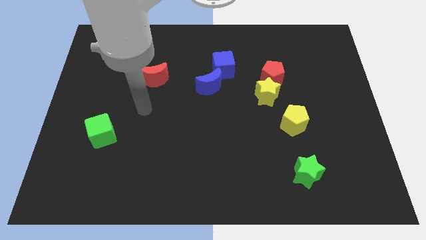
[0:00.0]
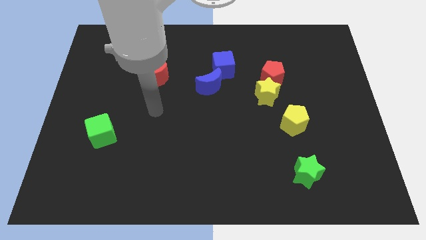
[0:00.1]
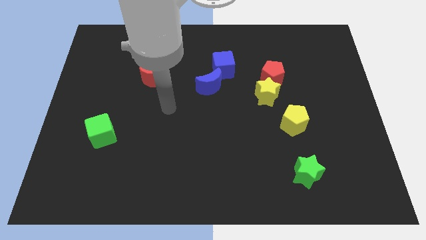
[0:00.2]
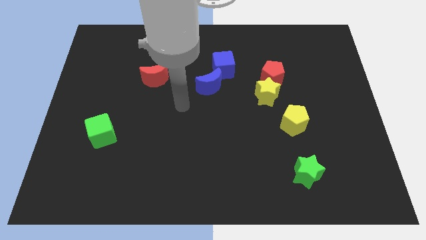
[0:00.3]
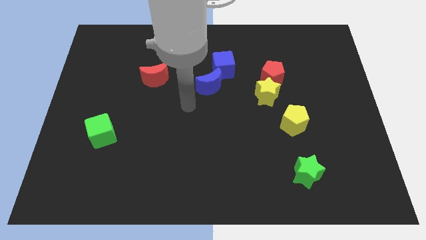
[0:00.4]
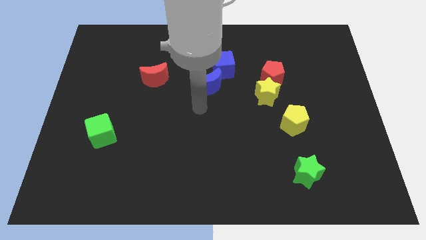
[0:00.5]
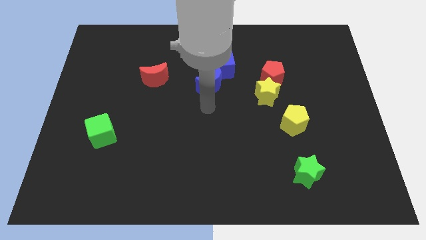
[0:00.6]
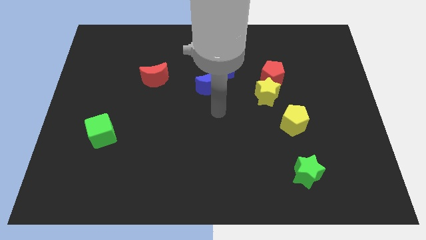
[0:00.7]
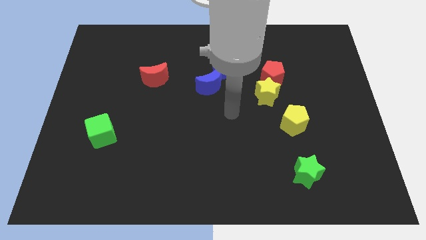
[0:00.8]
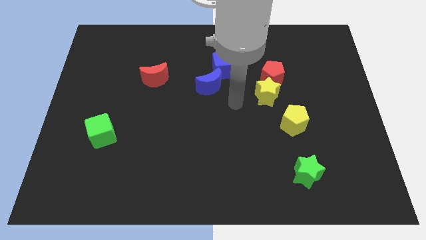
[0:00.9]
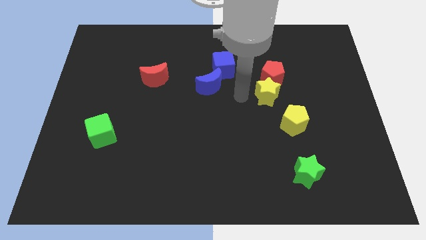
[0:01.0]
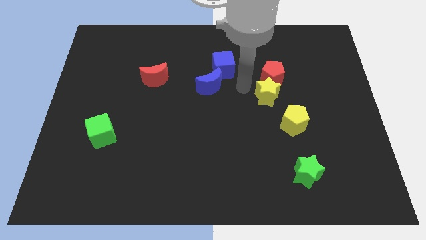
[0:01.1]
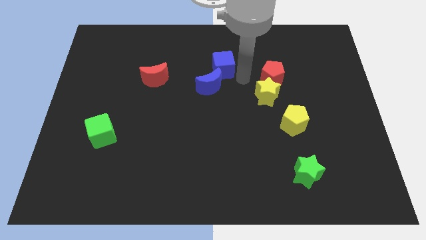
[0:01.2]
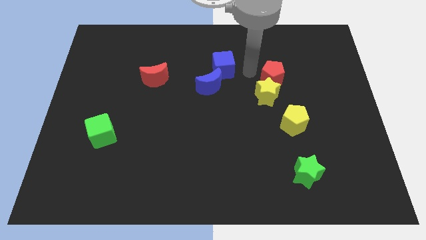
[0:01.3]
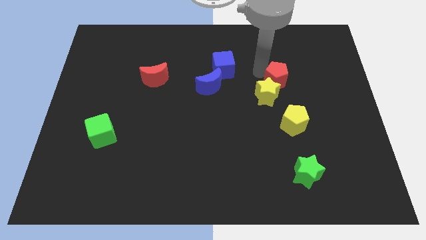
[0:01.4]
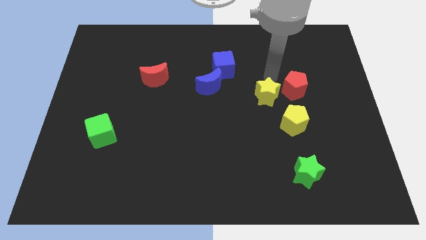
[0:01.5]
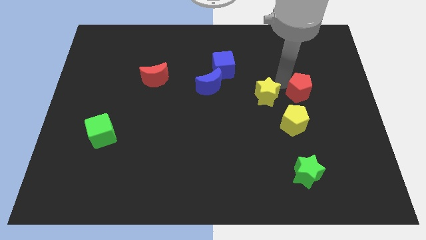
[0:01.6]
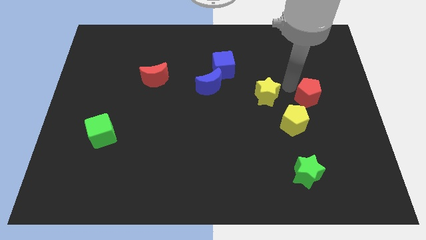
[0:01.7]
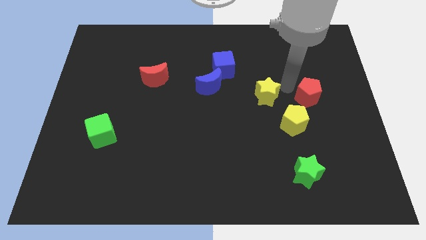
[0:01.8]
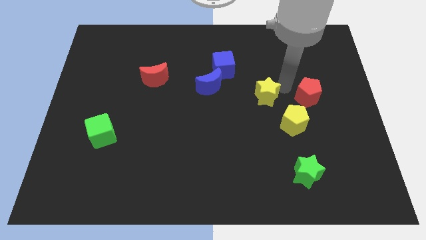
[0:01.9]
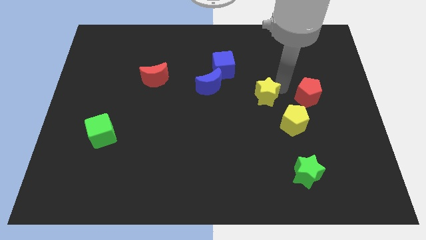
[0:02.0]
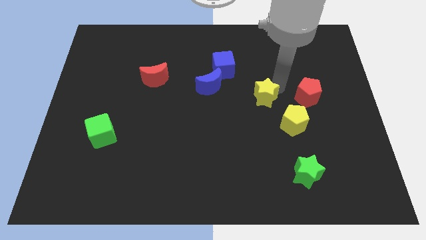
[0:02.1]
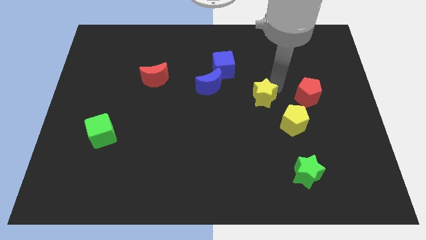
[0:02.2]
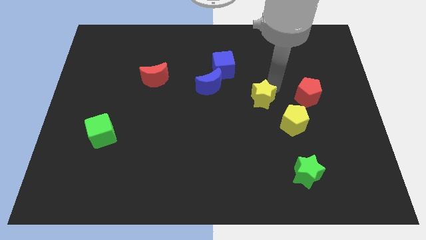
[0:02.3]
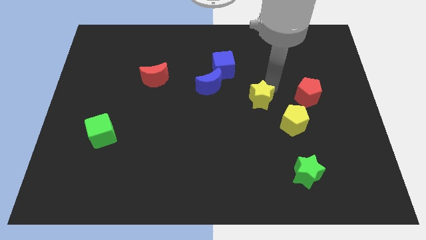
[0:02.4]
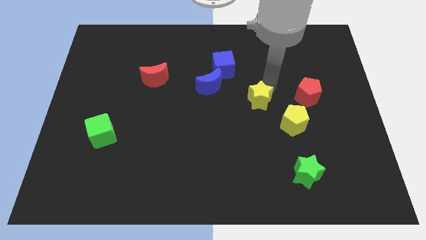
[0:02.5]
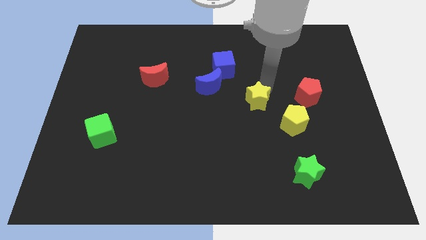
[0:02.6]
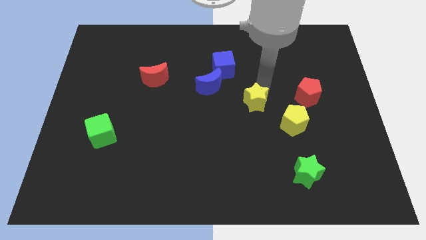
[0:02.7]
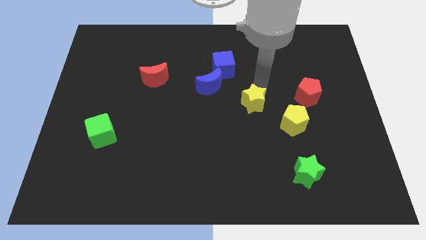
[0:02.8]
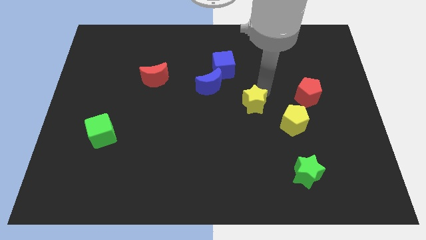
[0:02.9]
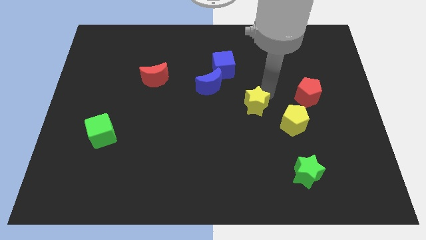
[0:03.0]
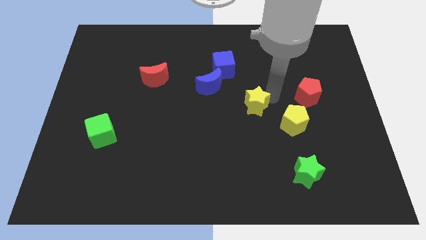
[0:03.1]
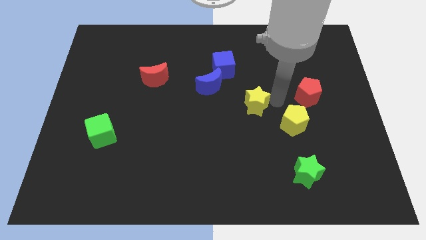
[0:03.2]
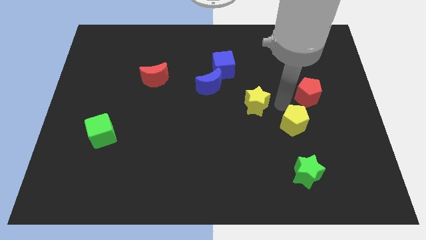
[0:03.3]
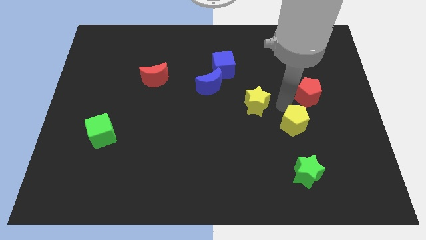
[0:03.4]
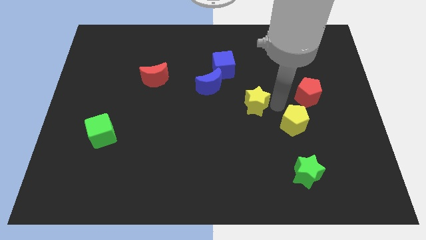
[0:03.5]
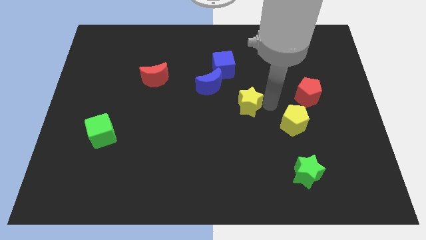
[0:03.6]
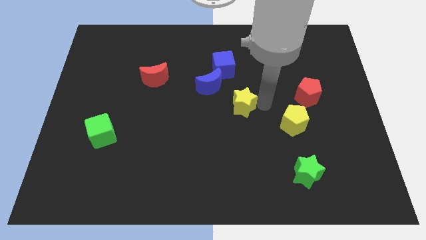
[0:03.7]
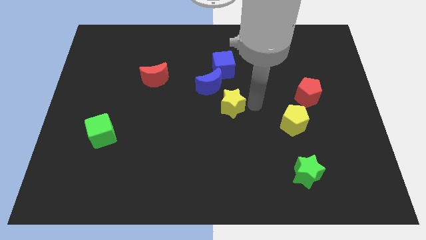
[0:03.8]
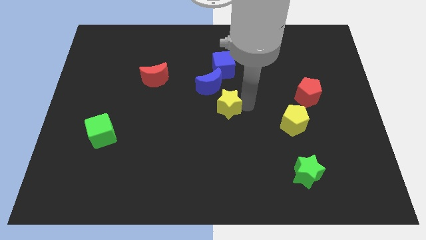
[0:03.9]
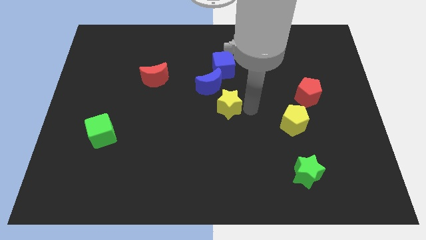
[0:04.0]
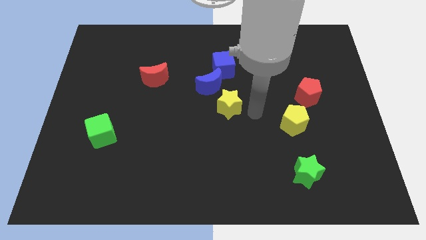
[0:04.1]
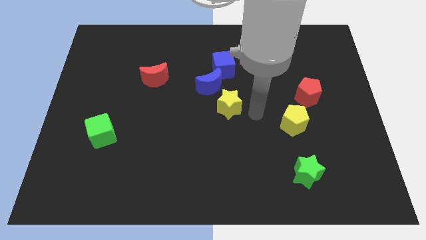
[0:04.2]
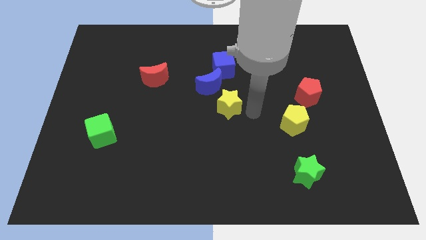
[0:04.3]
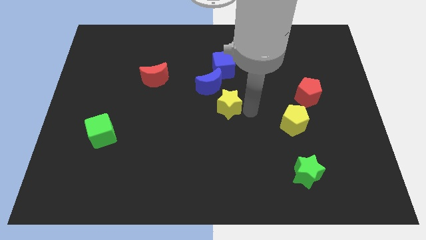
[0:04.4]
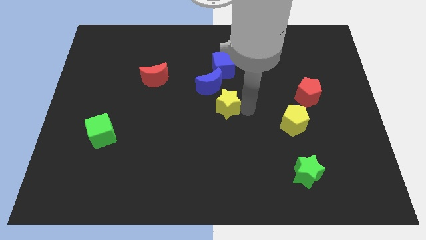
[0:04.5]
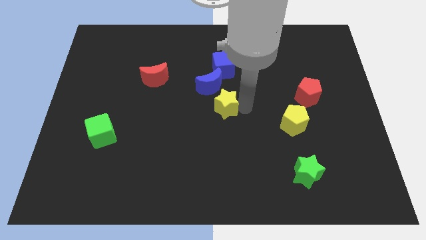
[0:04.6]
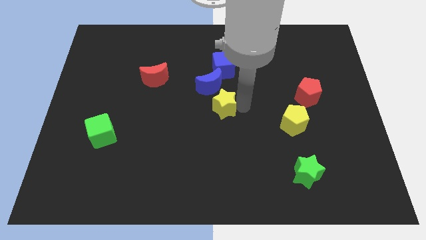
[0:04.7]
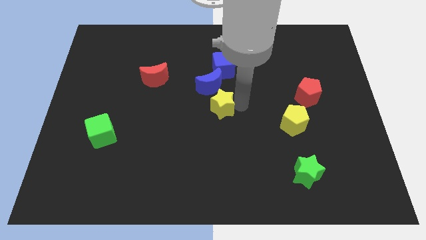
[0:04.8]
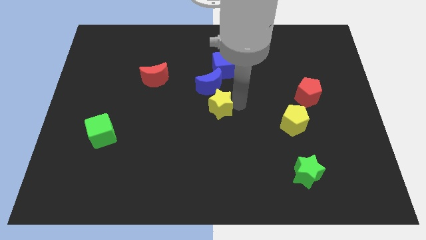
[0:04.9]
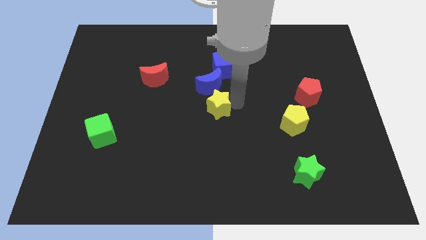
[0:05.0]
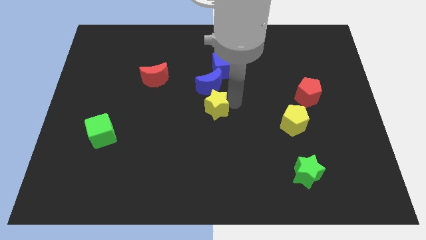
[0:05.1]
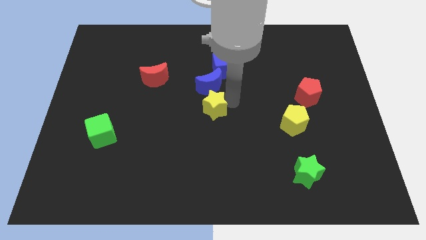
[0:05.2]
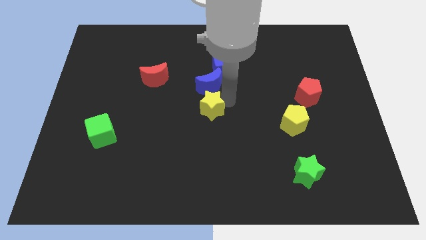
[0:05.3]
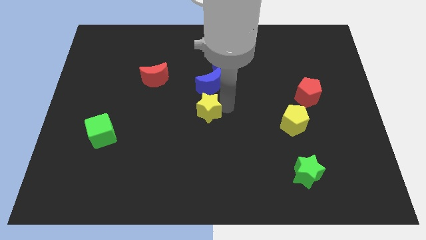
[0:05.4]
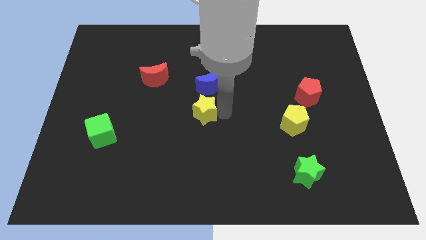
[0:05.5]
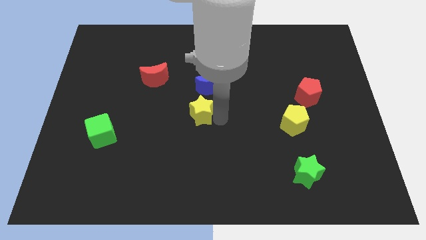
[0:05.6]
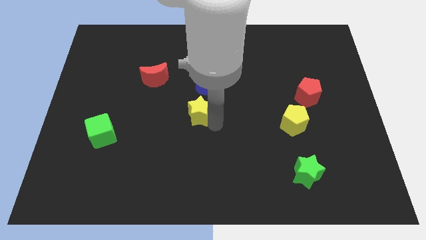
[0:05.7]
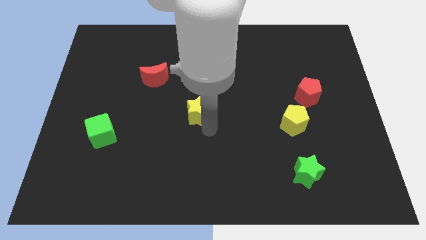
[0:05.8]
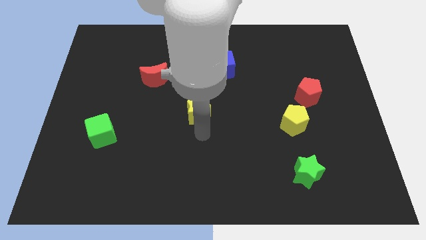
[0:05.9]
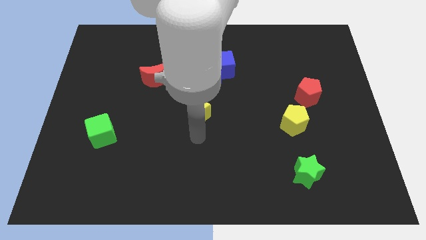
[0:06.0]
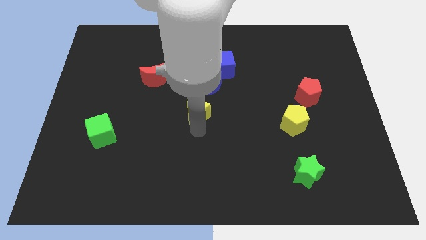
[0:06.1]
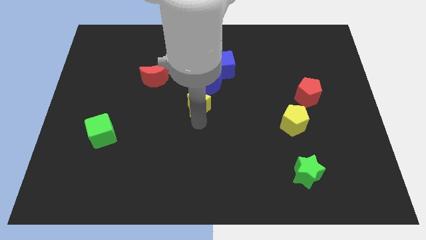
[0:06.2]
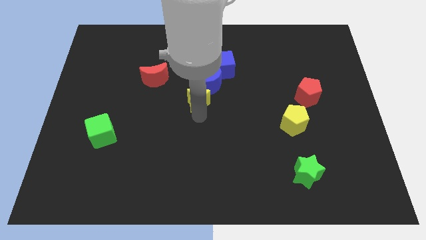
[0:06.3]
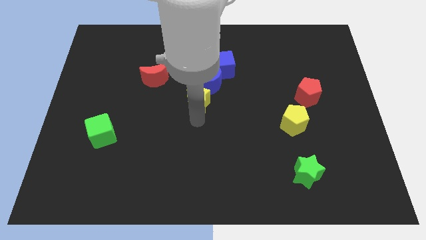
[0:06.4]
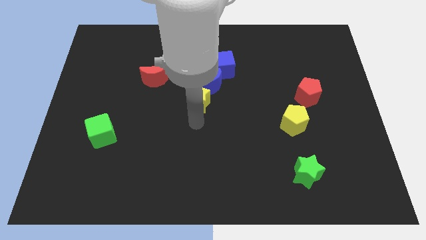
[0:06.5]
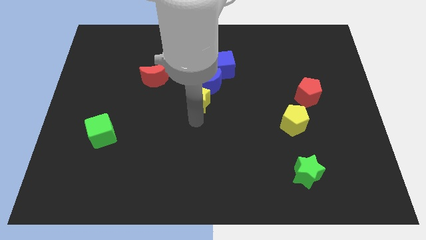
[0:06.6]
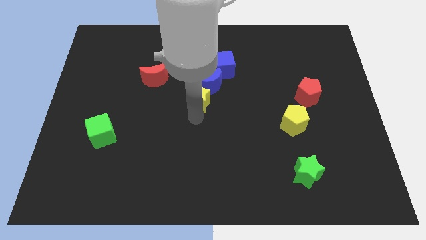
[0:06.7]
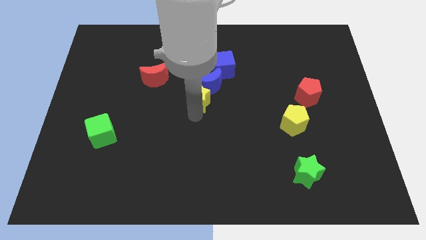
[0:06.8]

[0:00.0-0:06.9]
put the yellow star to the bottom left side of the blue cube

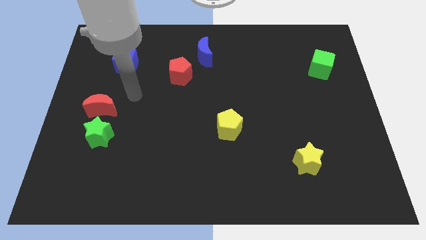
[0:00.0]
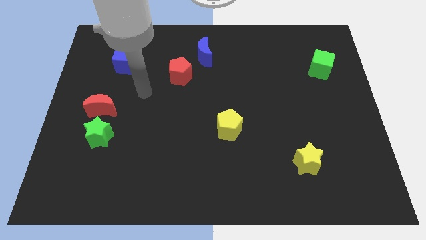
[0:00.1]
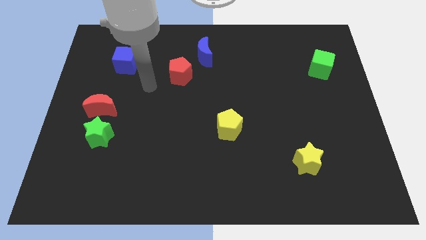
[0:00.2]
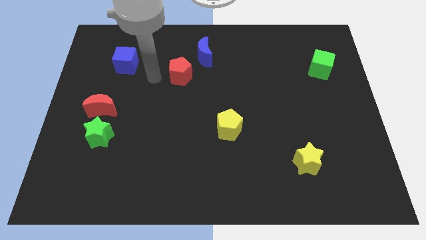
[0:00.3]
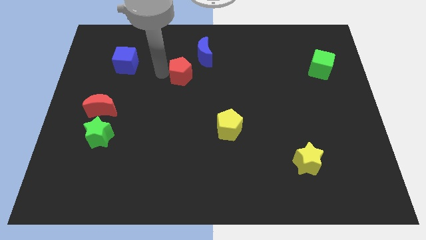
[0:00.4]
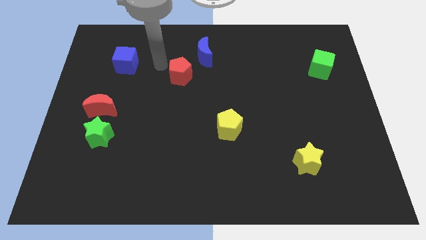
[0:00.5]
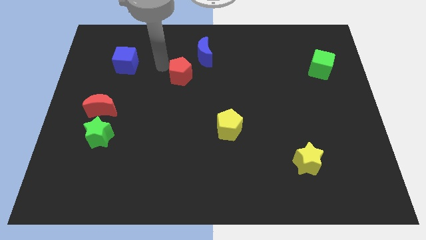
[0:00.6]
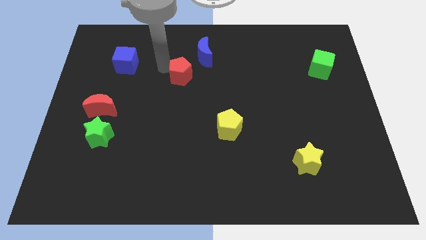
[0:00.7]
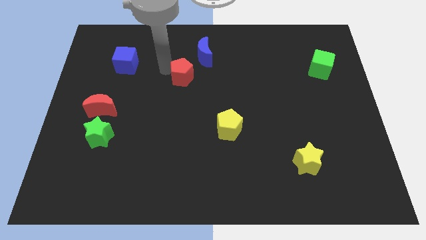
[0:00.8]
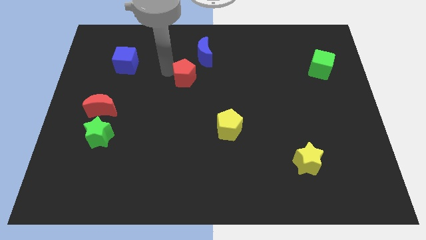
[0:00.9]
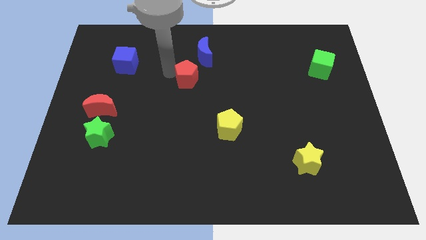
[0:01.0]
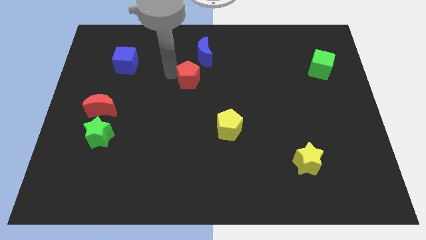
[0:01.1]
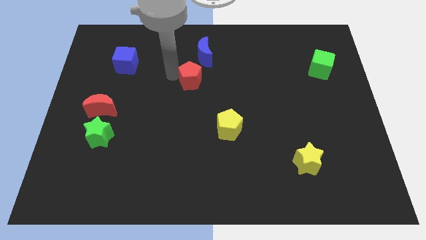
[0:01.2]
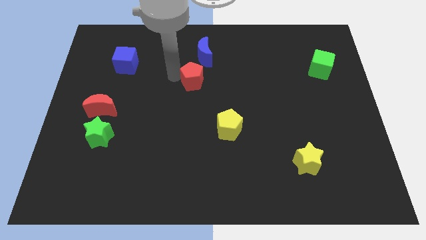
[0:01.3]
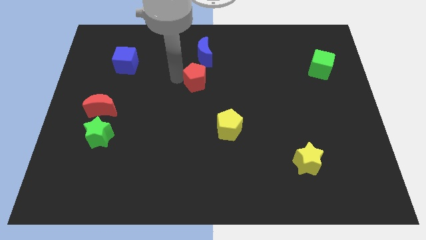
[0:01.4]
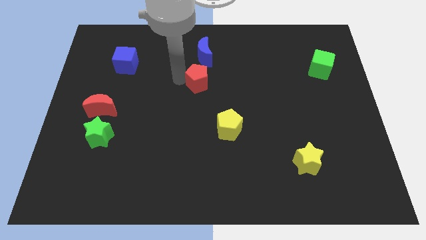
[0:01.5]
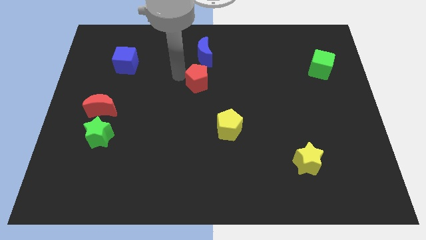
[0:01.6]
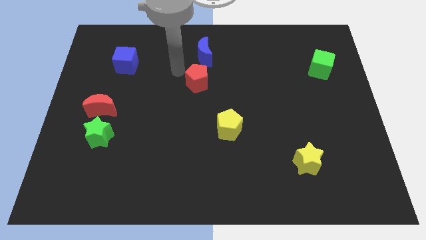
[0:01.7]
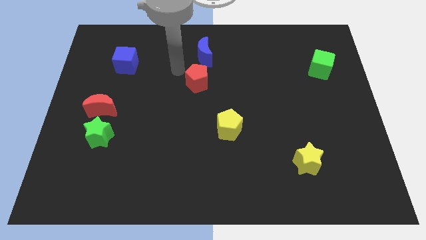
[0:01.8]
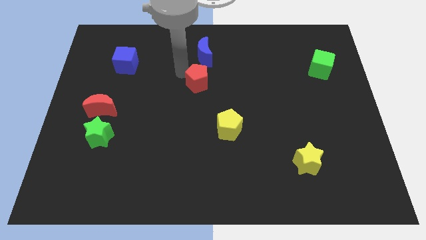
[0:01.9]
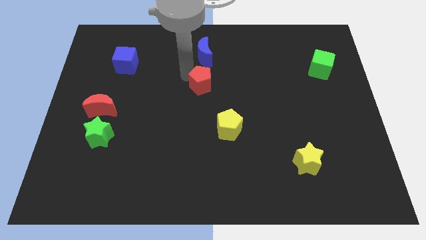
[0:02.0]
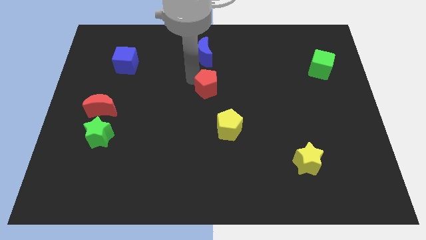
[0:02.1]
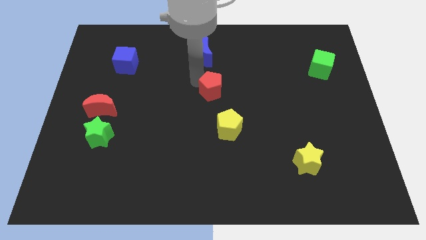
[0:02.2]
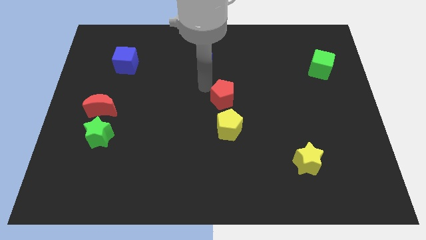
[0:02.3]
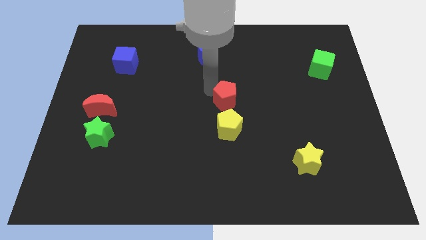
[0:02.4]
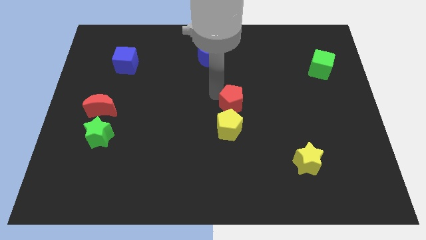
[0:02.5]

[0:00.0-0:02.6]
put the red pentagon to the top right side of the yellow pentagon
